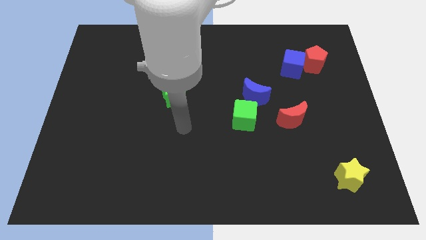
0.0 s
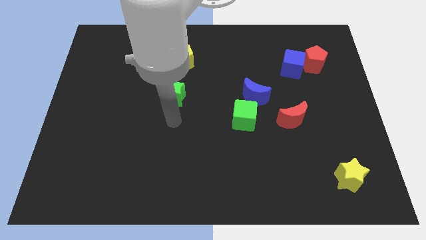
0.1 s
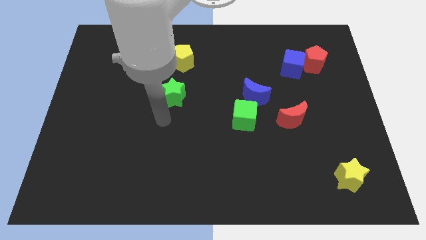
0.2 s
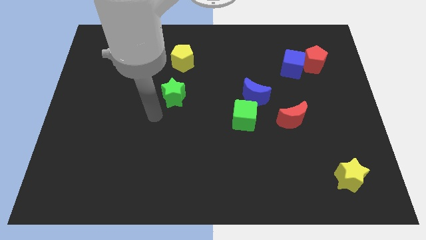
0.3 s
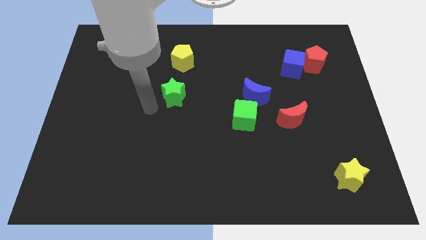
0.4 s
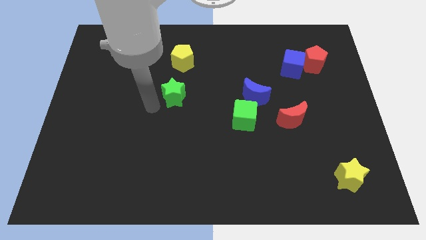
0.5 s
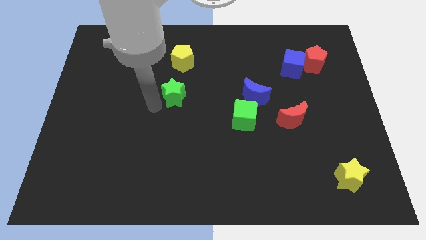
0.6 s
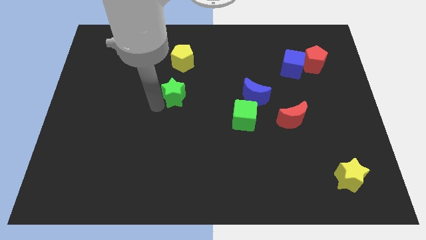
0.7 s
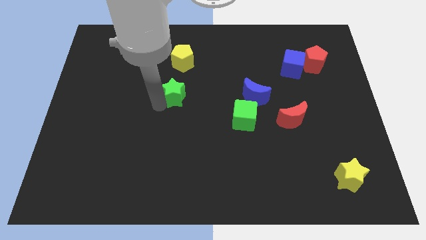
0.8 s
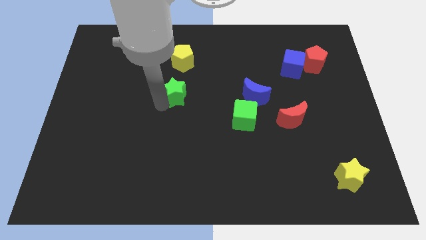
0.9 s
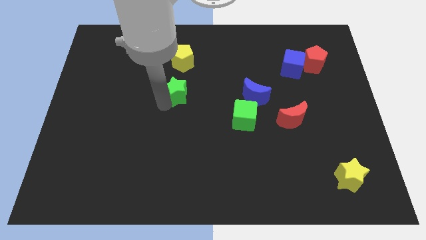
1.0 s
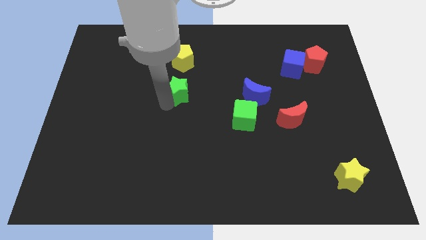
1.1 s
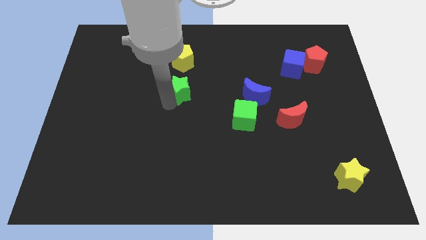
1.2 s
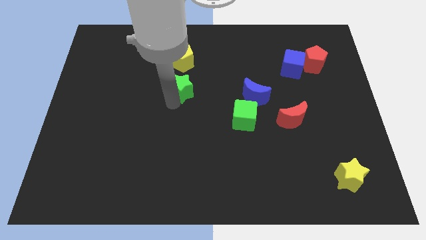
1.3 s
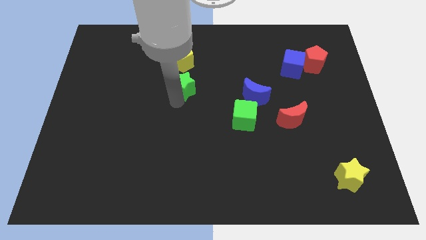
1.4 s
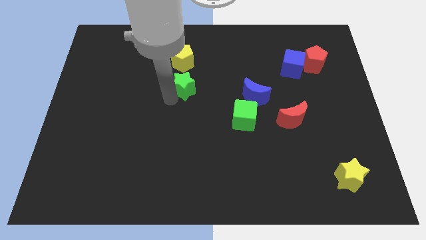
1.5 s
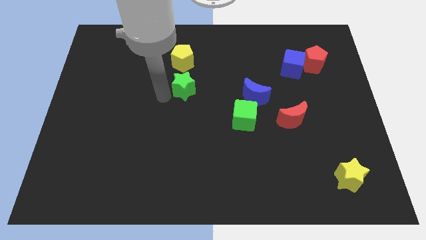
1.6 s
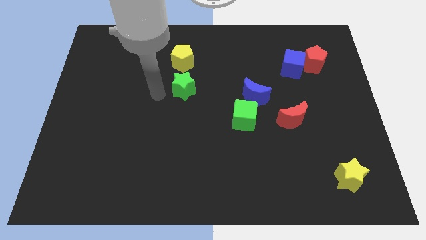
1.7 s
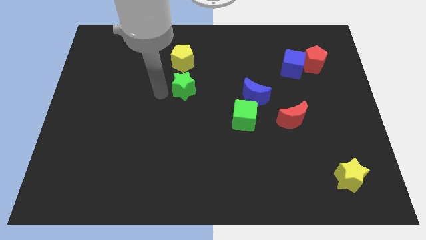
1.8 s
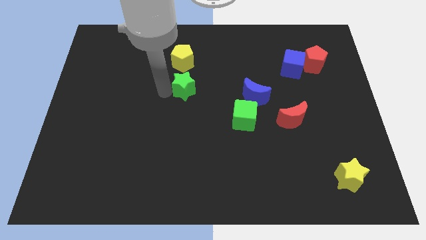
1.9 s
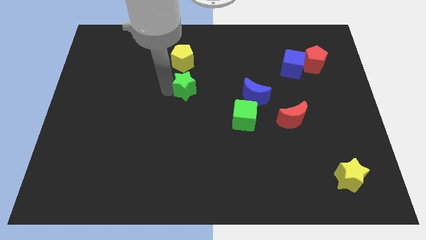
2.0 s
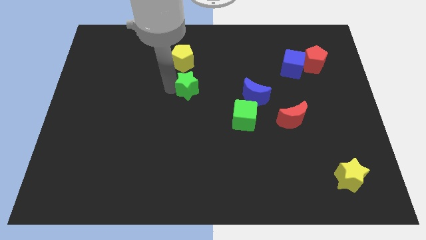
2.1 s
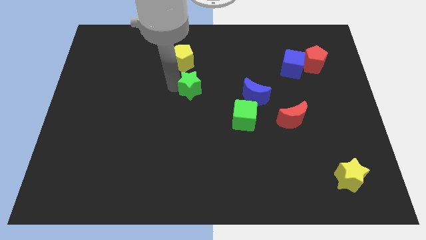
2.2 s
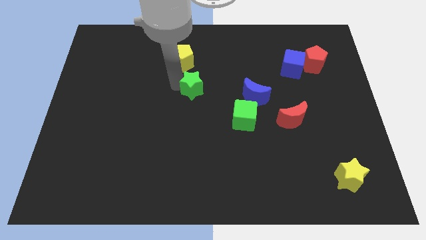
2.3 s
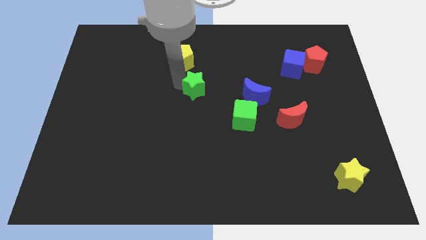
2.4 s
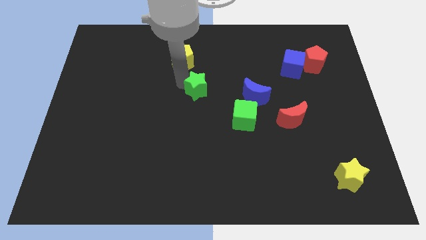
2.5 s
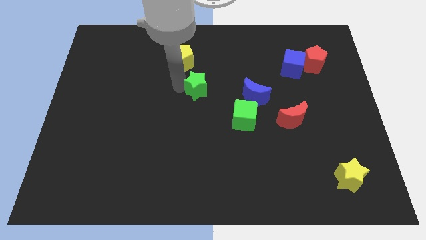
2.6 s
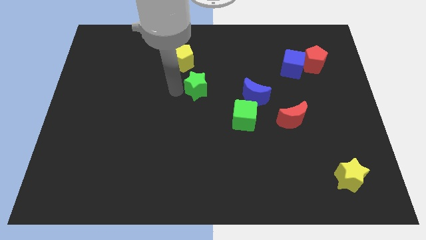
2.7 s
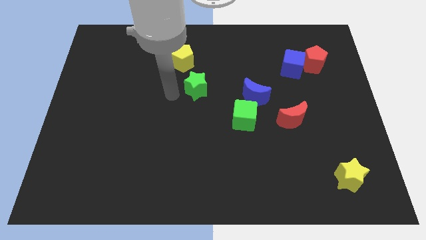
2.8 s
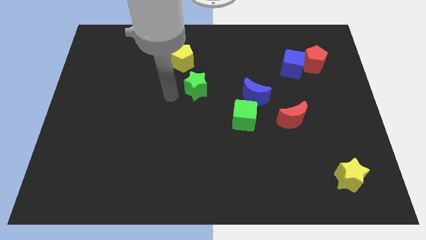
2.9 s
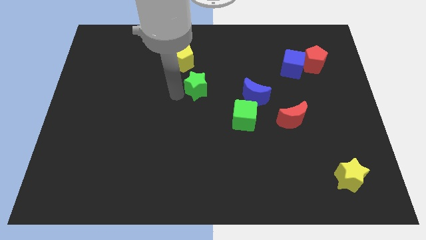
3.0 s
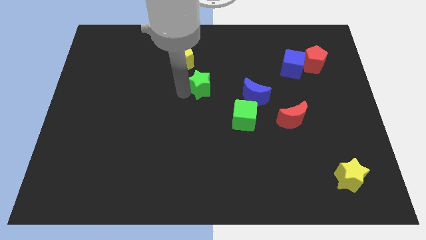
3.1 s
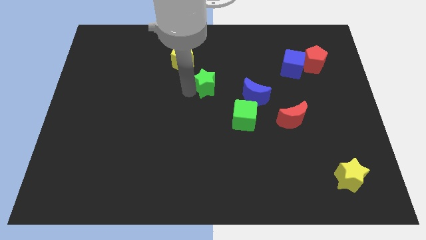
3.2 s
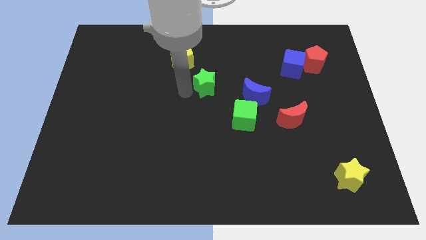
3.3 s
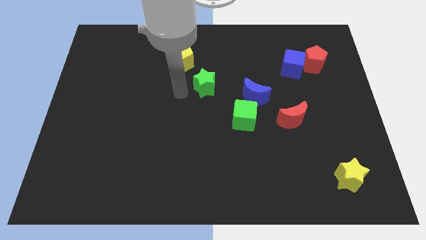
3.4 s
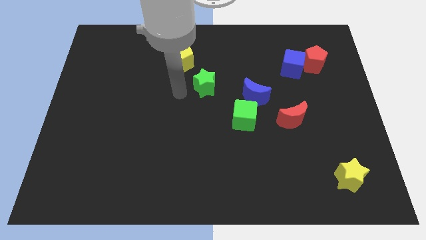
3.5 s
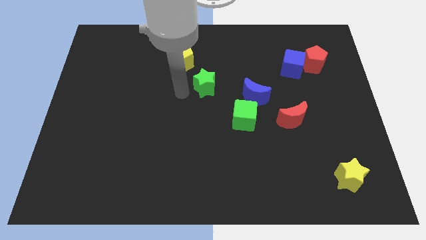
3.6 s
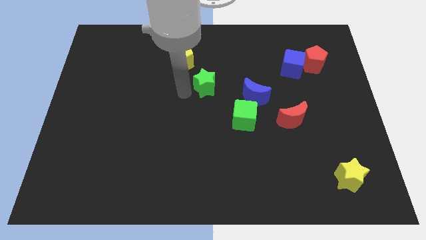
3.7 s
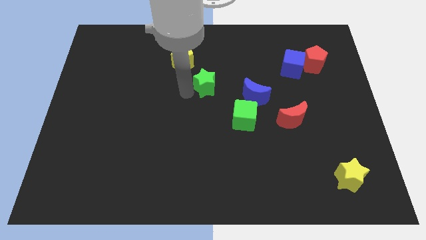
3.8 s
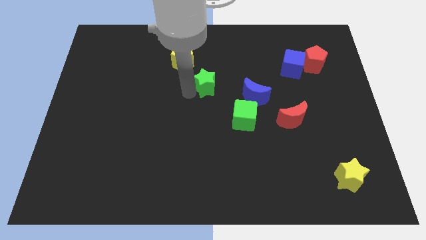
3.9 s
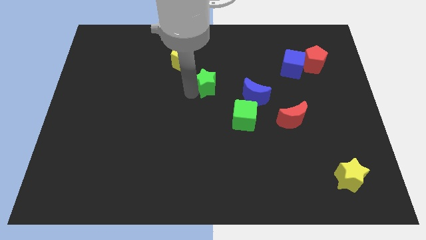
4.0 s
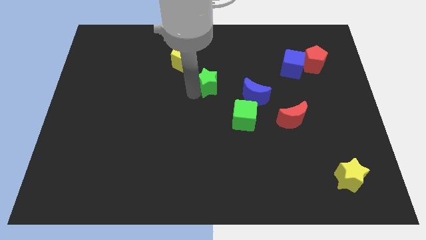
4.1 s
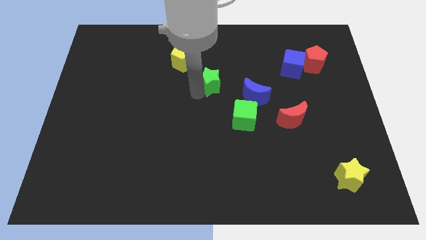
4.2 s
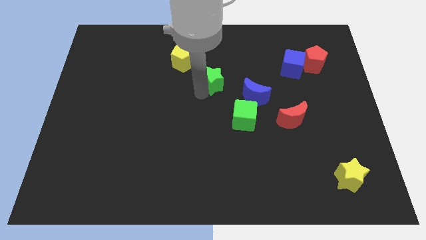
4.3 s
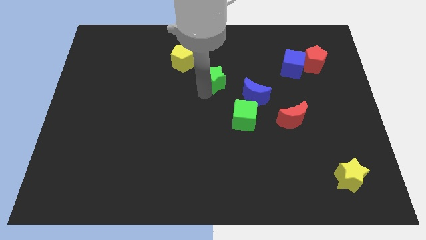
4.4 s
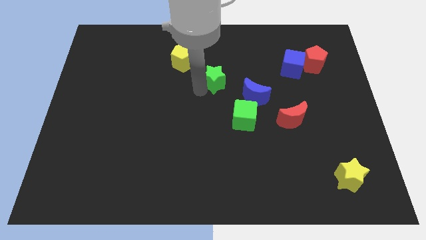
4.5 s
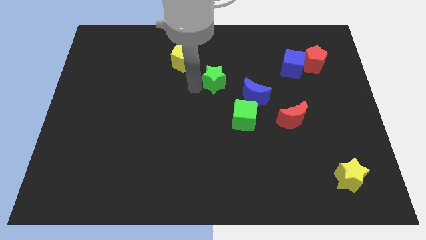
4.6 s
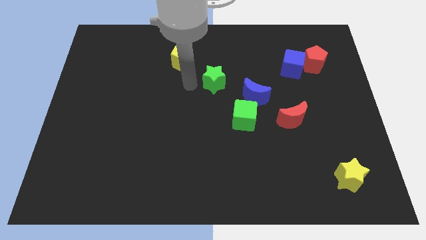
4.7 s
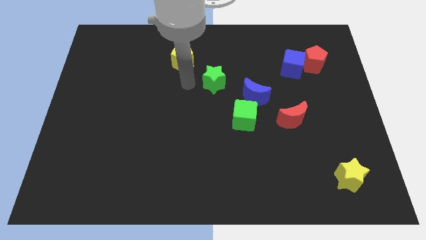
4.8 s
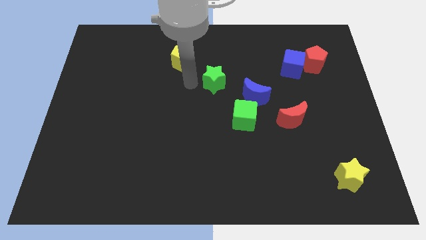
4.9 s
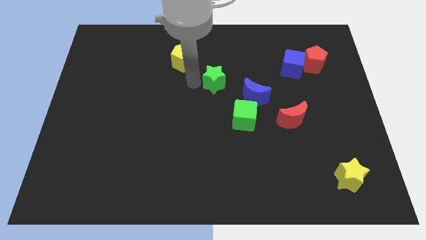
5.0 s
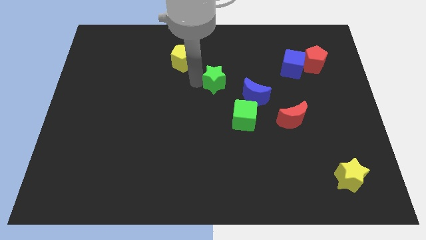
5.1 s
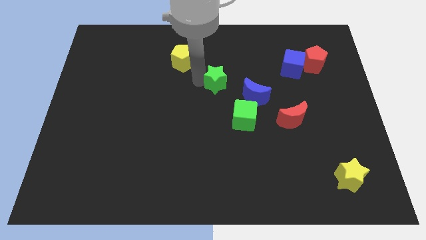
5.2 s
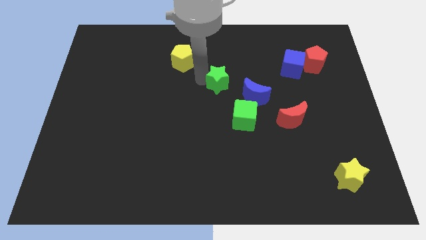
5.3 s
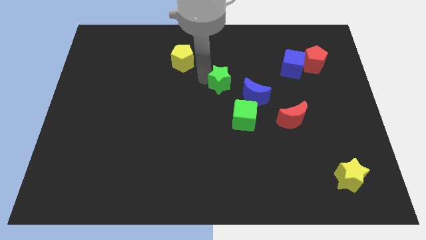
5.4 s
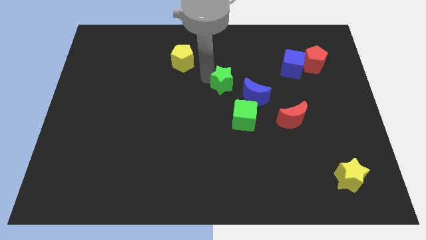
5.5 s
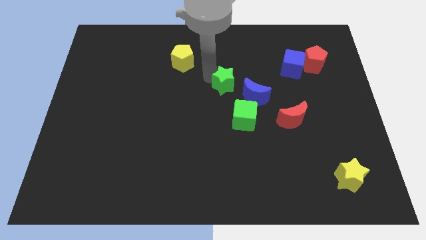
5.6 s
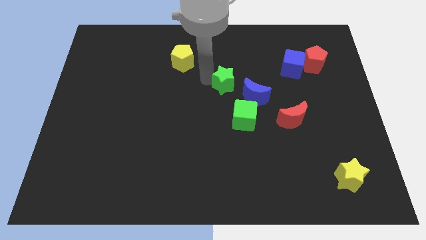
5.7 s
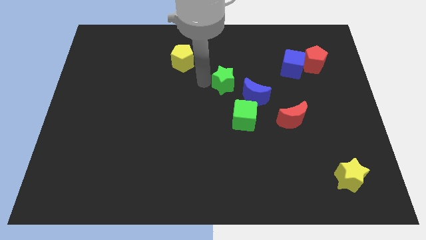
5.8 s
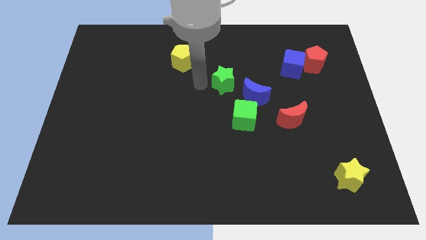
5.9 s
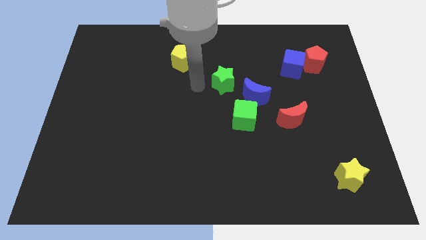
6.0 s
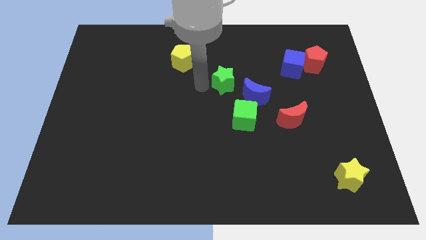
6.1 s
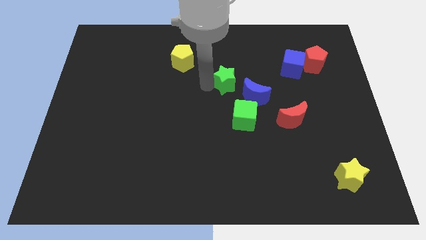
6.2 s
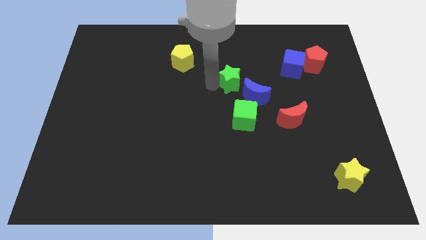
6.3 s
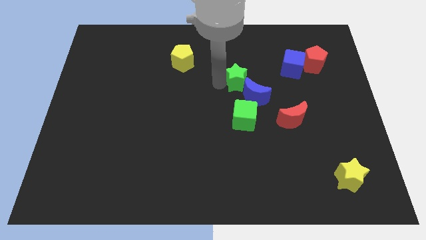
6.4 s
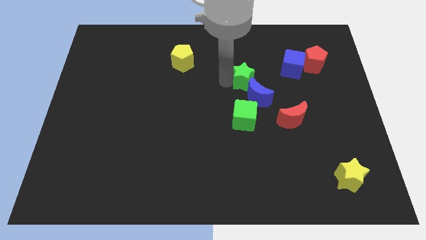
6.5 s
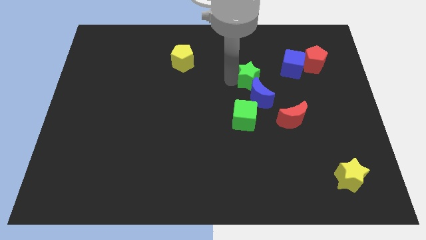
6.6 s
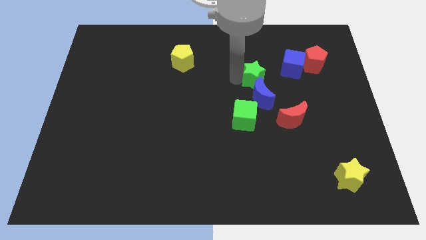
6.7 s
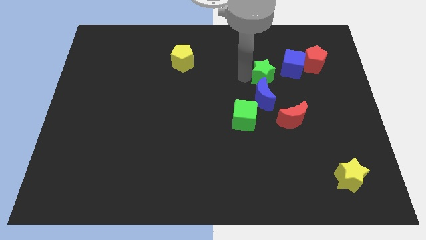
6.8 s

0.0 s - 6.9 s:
push the green star right

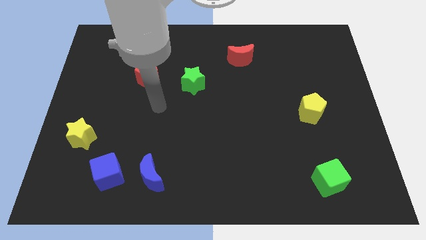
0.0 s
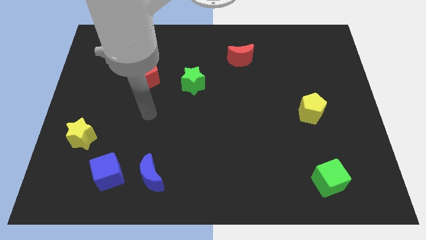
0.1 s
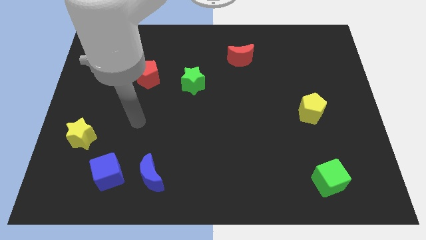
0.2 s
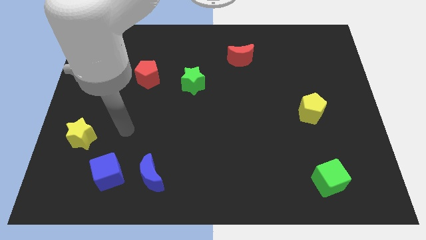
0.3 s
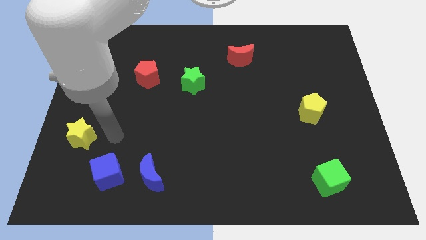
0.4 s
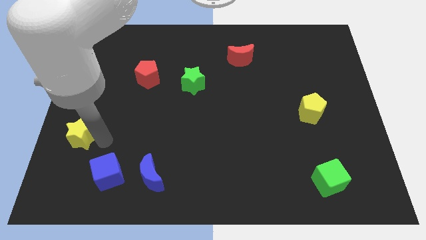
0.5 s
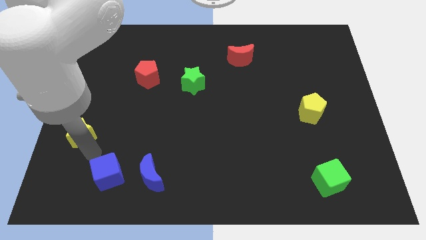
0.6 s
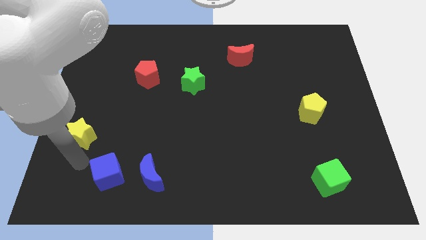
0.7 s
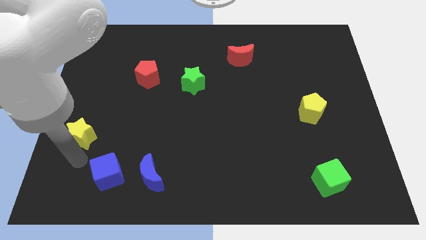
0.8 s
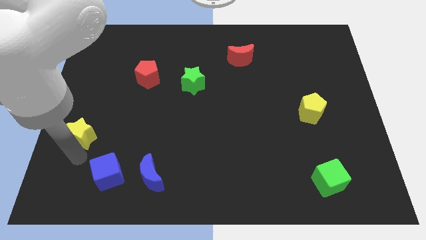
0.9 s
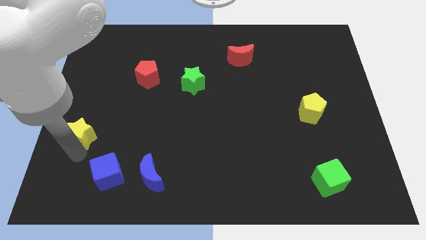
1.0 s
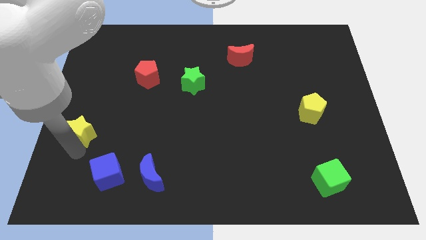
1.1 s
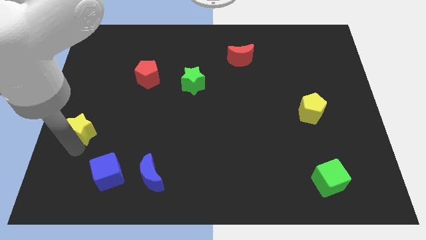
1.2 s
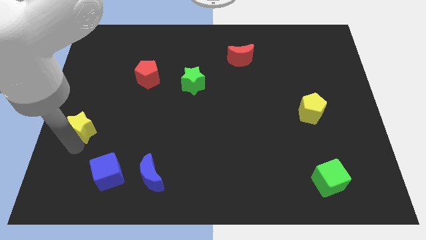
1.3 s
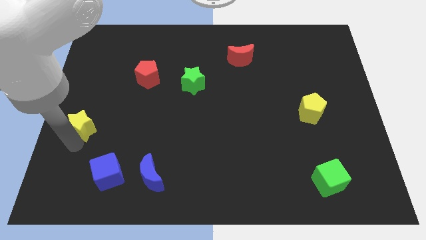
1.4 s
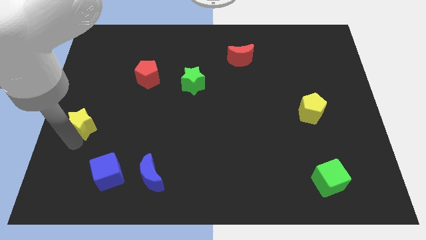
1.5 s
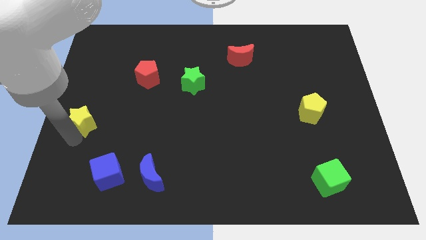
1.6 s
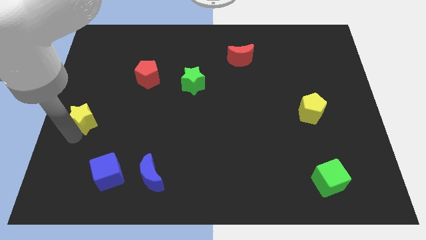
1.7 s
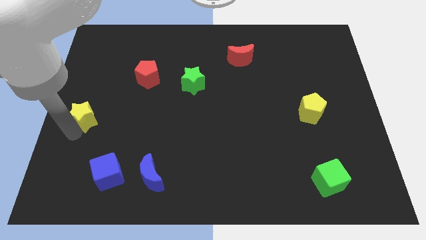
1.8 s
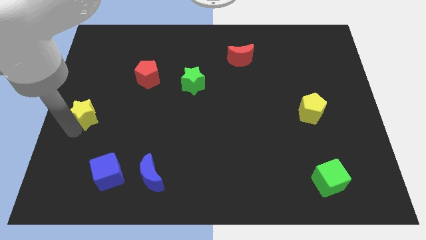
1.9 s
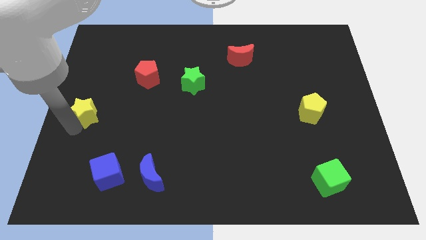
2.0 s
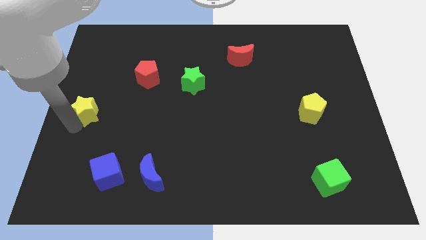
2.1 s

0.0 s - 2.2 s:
move the yellow star up a bit
